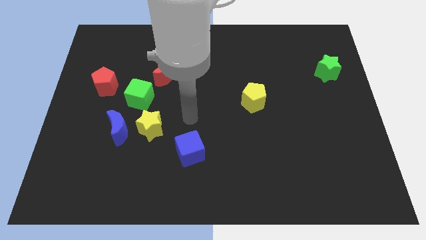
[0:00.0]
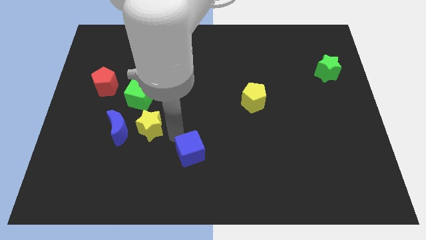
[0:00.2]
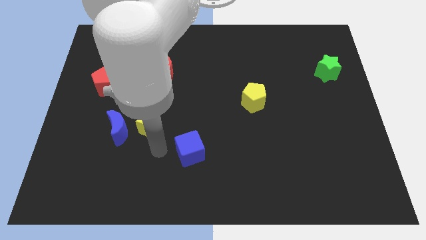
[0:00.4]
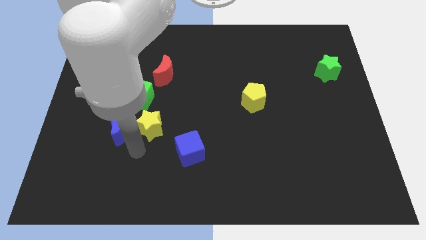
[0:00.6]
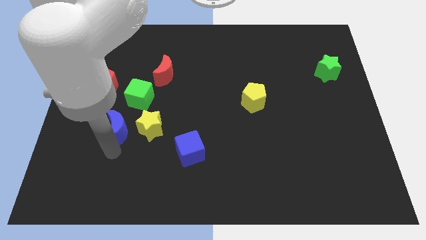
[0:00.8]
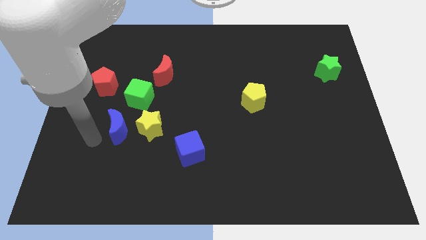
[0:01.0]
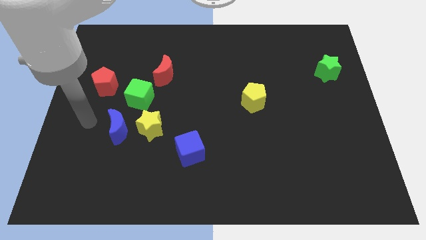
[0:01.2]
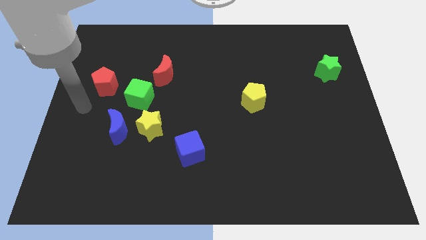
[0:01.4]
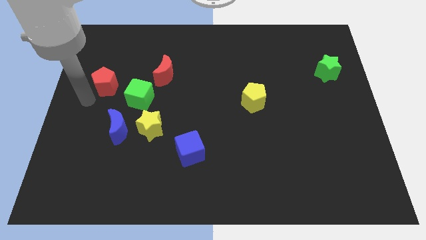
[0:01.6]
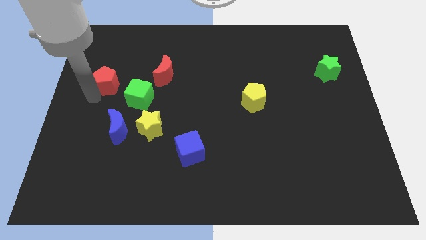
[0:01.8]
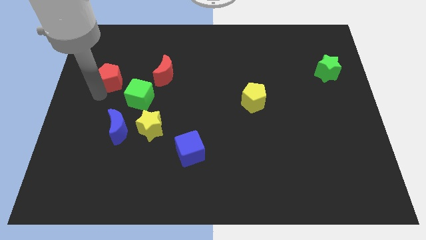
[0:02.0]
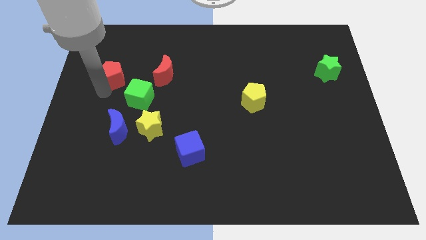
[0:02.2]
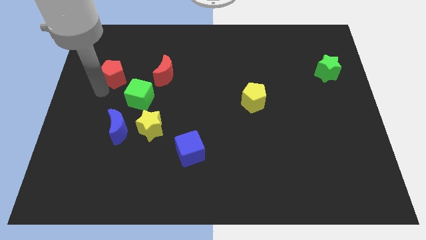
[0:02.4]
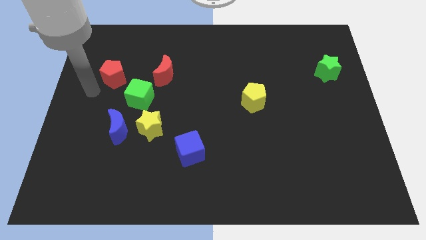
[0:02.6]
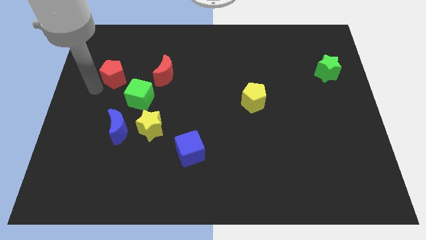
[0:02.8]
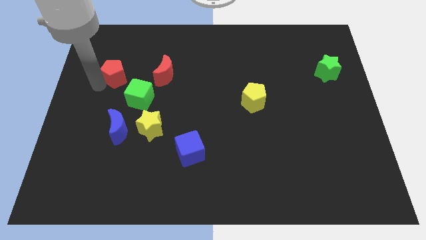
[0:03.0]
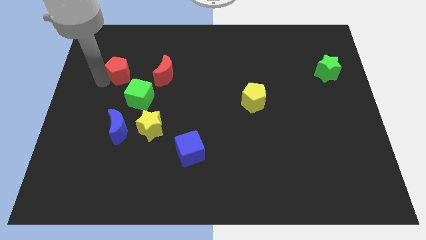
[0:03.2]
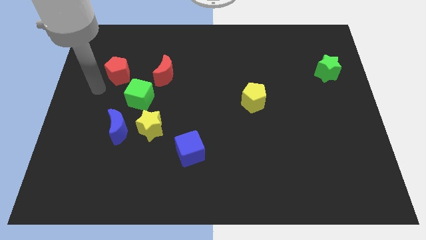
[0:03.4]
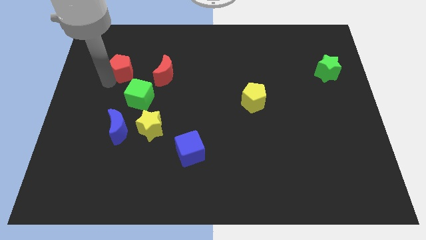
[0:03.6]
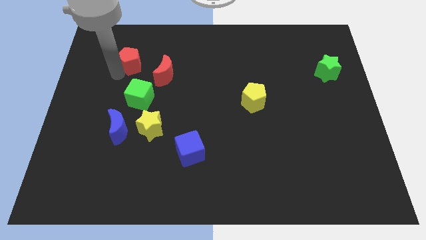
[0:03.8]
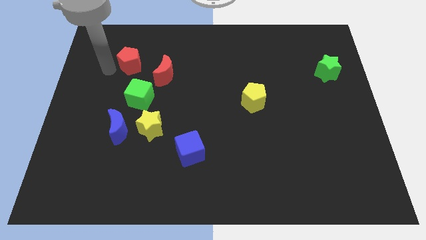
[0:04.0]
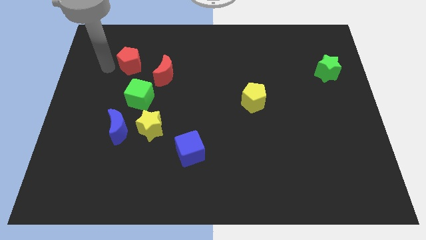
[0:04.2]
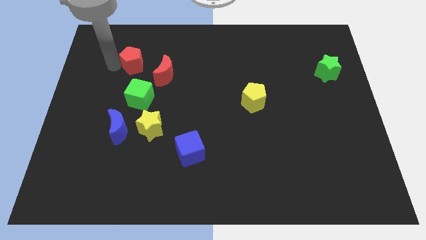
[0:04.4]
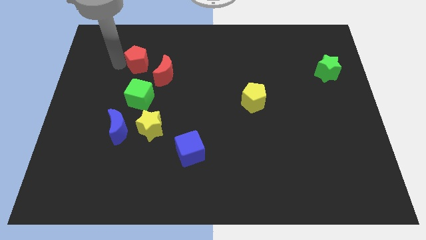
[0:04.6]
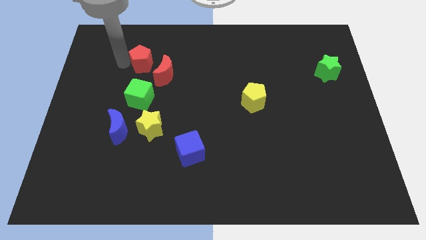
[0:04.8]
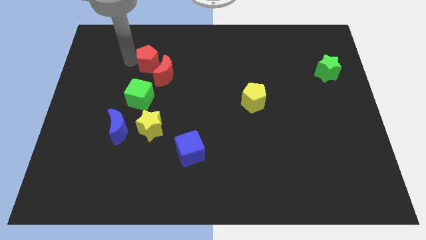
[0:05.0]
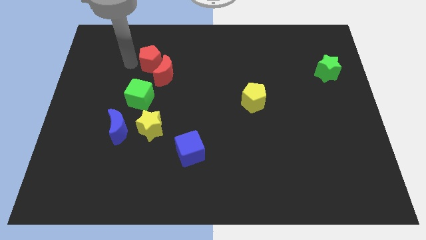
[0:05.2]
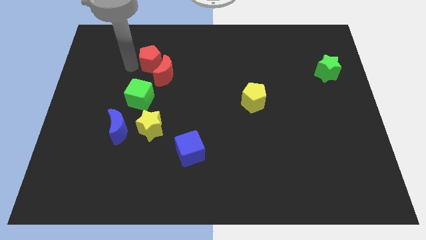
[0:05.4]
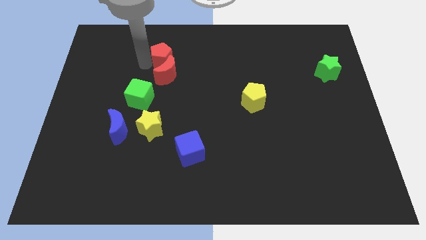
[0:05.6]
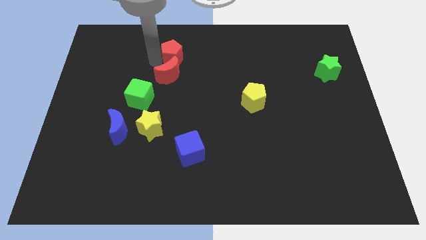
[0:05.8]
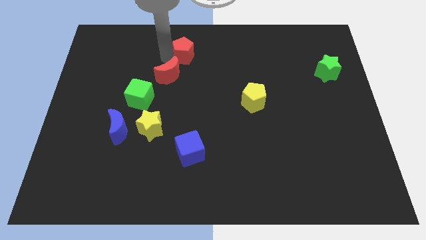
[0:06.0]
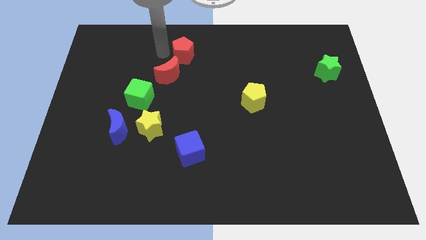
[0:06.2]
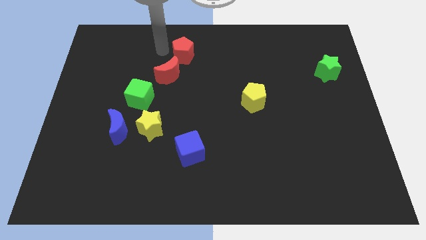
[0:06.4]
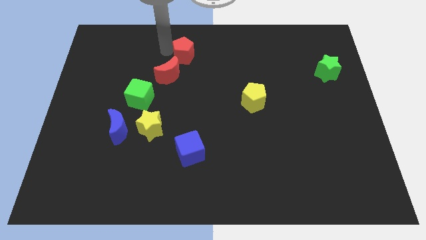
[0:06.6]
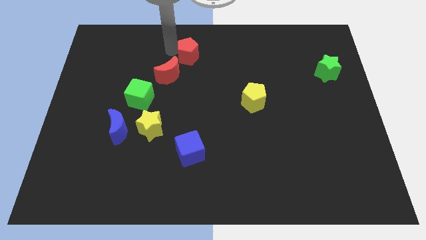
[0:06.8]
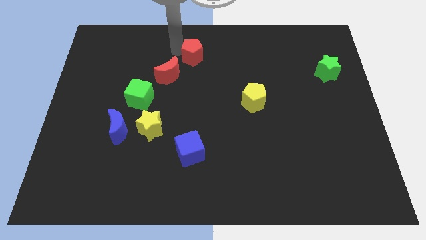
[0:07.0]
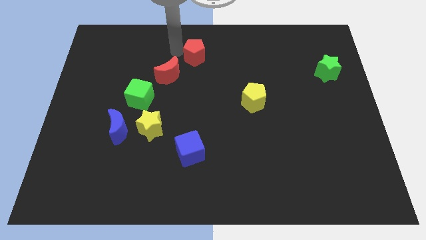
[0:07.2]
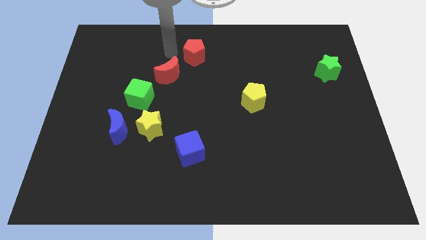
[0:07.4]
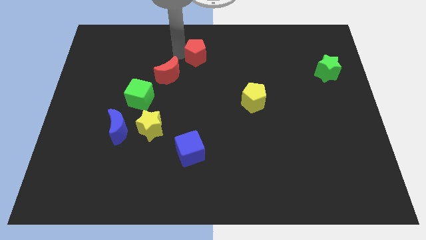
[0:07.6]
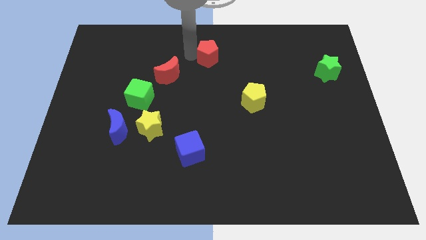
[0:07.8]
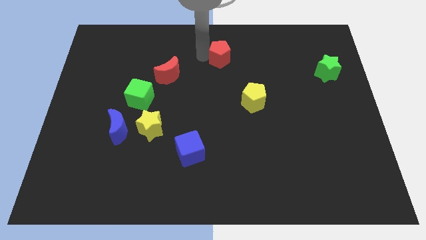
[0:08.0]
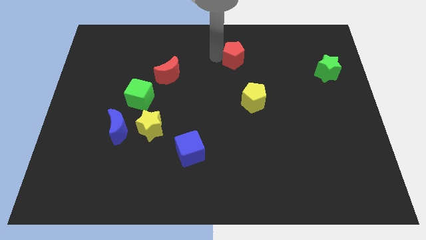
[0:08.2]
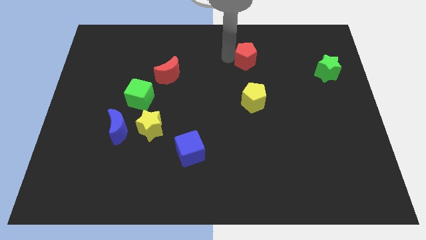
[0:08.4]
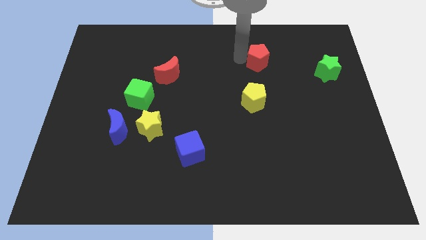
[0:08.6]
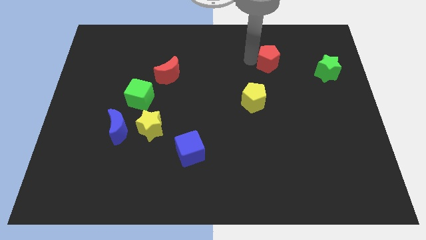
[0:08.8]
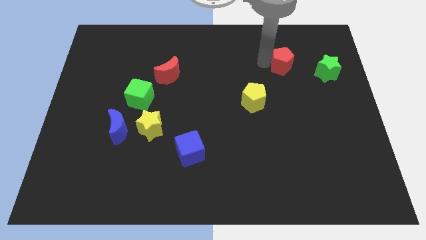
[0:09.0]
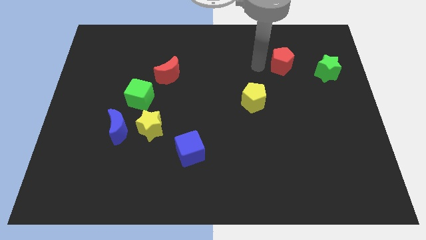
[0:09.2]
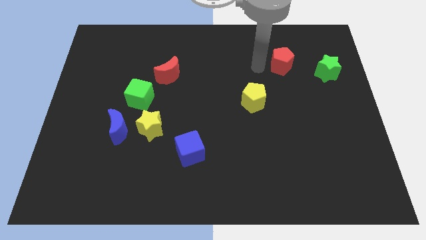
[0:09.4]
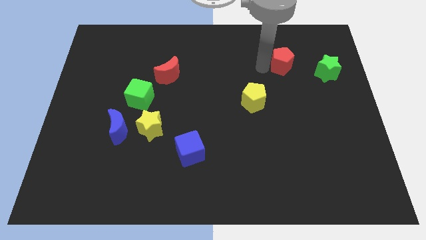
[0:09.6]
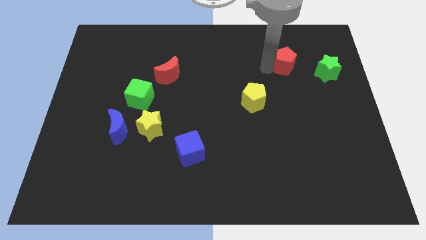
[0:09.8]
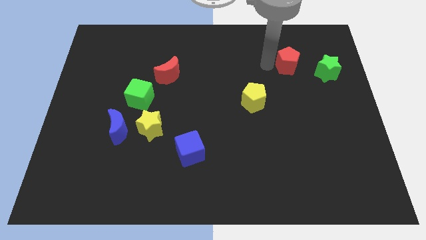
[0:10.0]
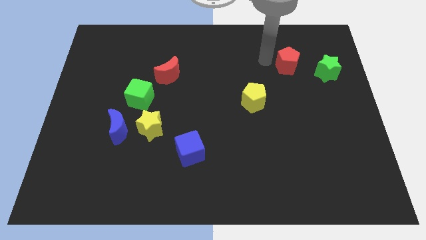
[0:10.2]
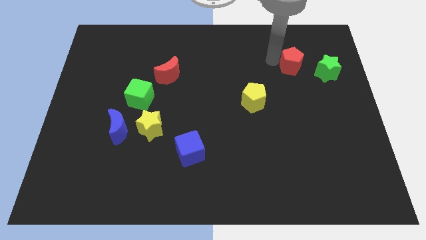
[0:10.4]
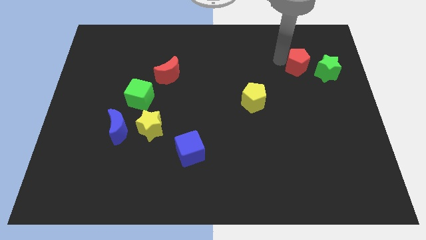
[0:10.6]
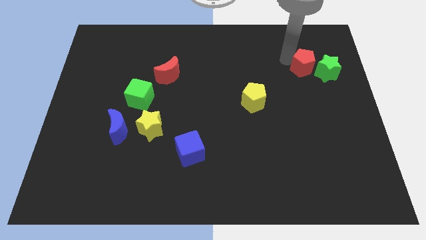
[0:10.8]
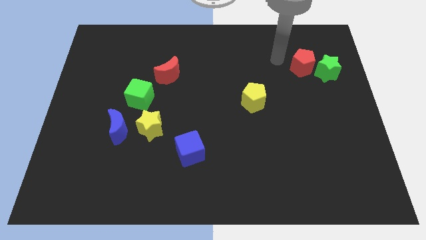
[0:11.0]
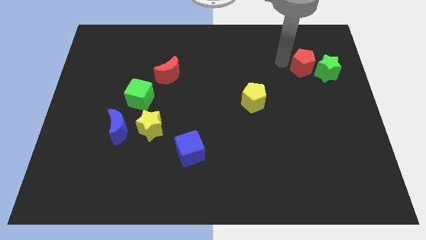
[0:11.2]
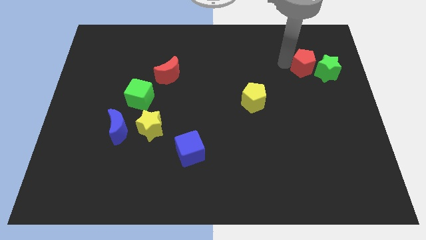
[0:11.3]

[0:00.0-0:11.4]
move the red pentagon to the green star

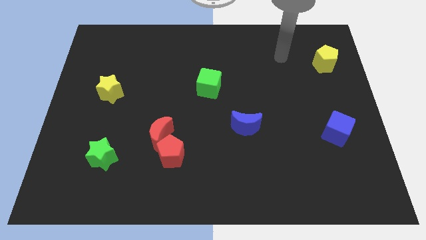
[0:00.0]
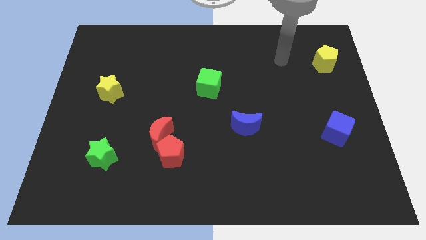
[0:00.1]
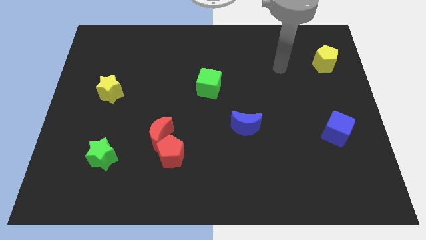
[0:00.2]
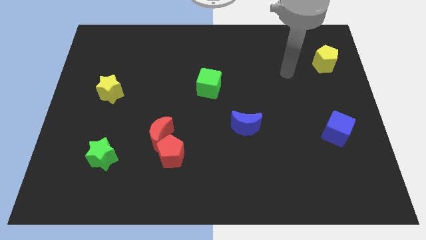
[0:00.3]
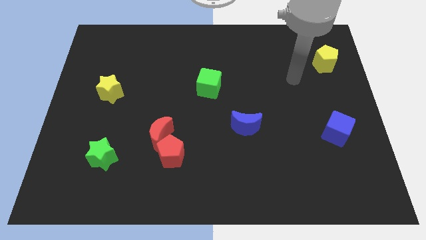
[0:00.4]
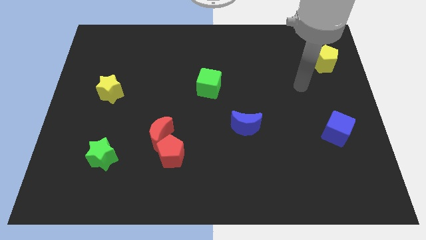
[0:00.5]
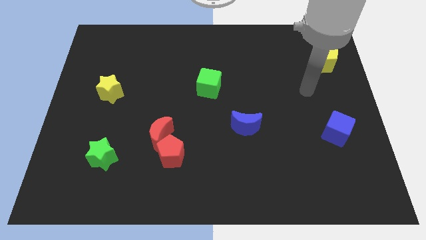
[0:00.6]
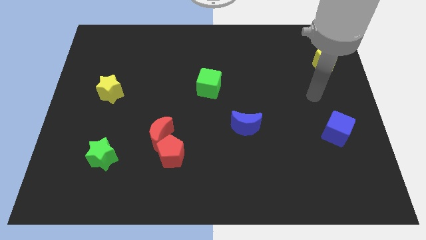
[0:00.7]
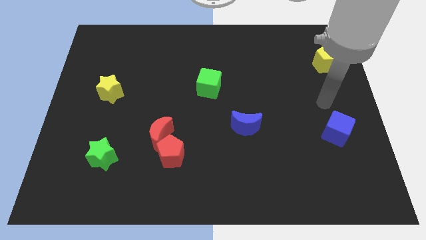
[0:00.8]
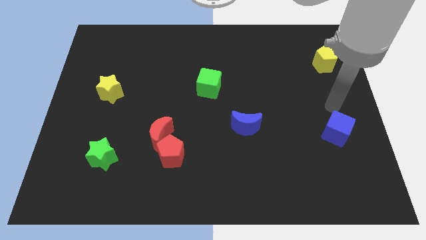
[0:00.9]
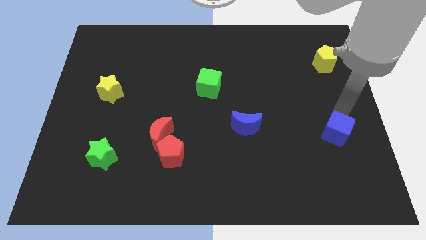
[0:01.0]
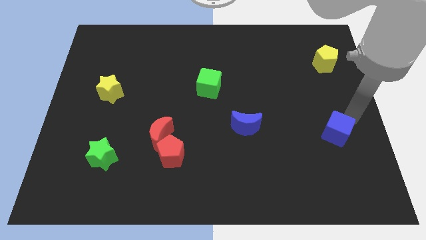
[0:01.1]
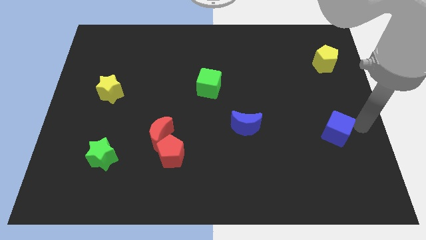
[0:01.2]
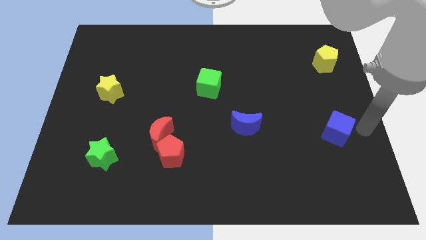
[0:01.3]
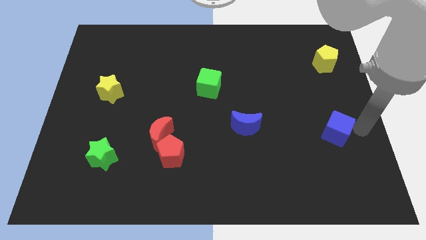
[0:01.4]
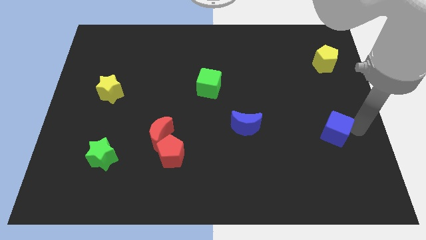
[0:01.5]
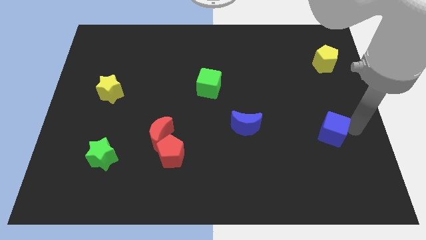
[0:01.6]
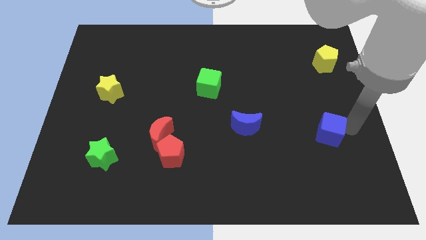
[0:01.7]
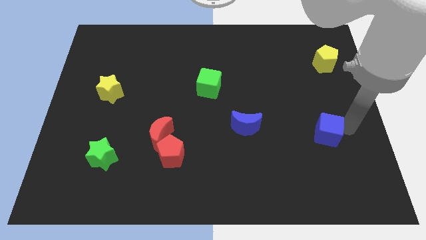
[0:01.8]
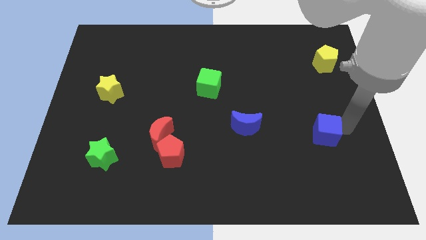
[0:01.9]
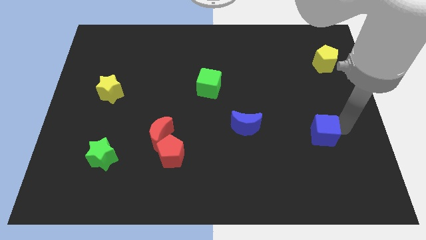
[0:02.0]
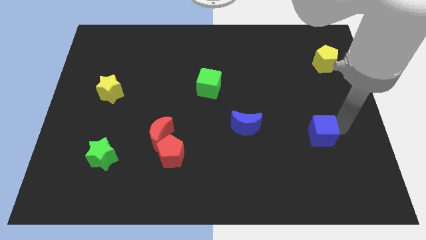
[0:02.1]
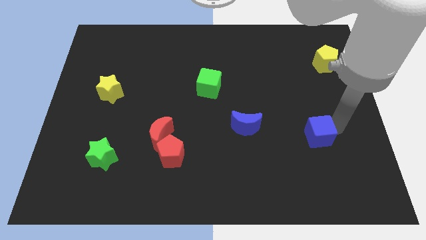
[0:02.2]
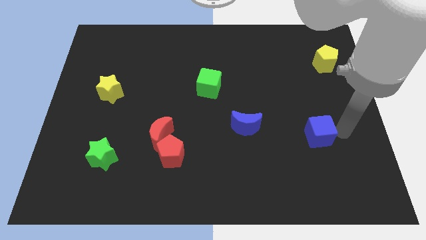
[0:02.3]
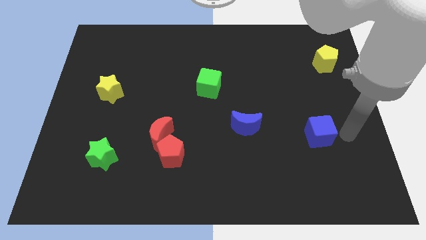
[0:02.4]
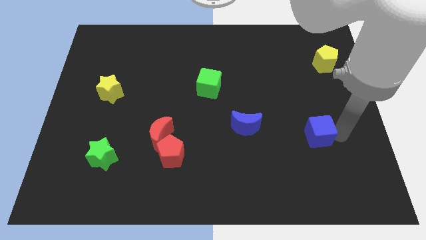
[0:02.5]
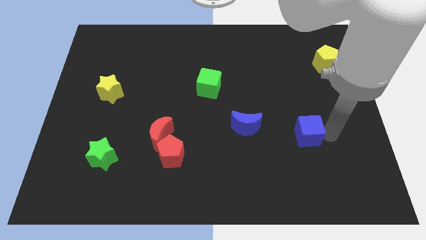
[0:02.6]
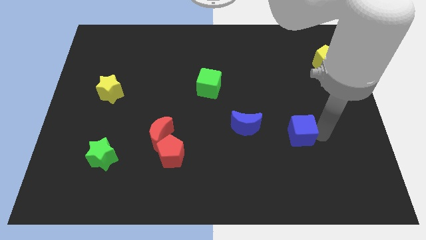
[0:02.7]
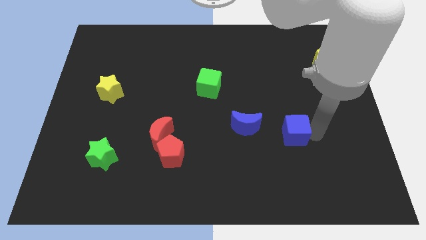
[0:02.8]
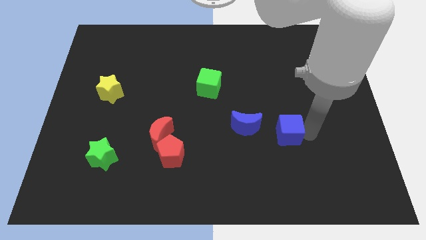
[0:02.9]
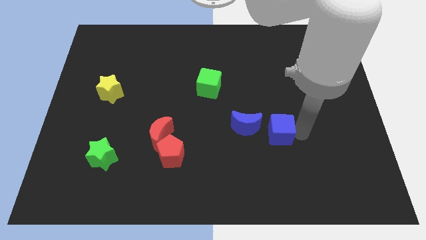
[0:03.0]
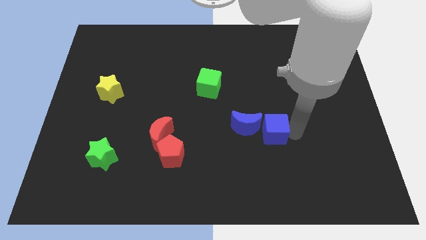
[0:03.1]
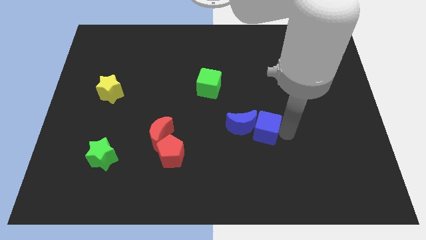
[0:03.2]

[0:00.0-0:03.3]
put the blue cube close to the blue moon
